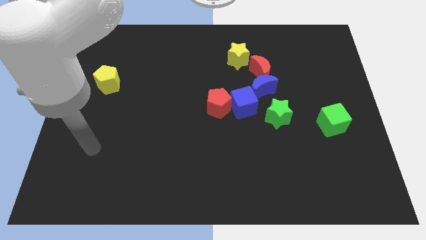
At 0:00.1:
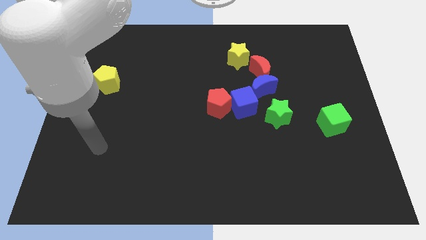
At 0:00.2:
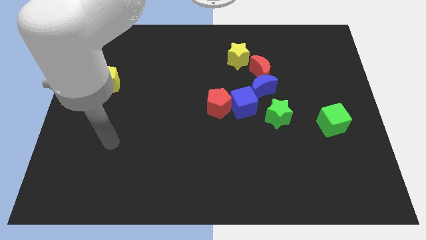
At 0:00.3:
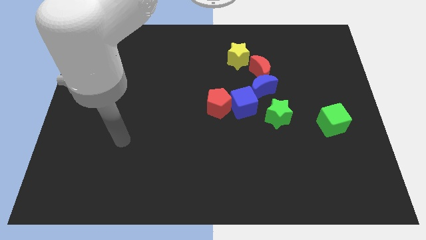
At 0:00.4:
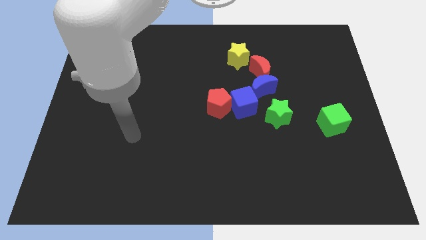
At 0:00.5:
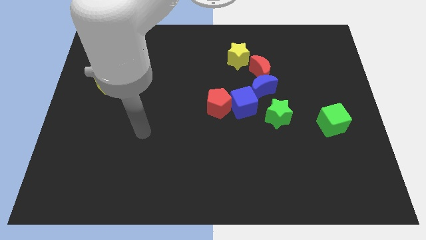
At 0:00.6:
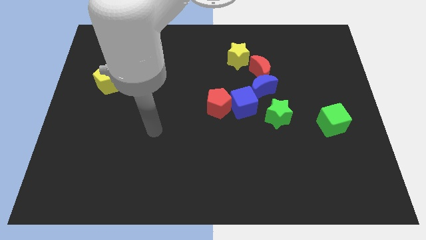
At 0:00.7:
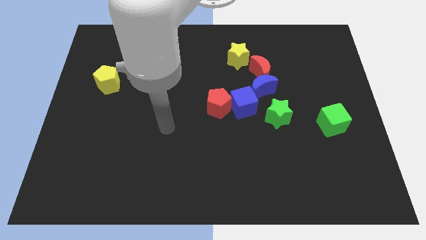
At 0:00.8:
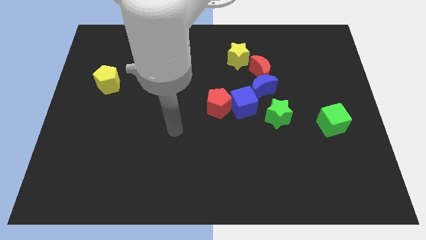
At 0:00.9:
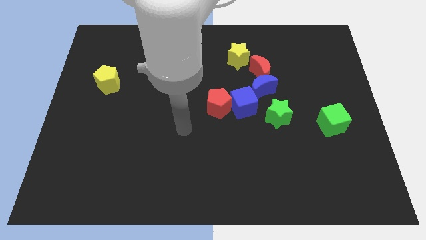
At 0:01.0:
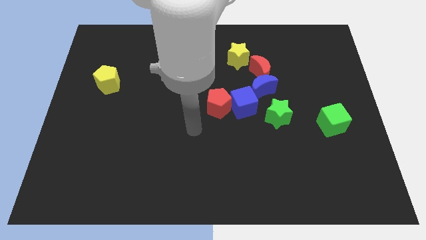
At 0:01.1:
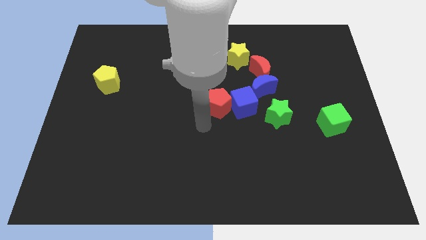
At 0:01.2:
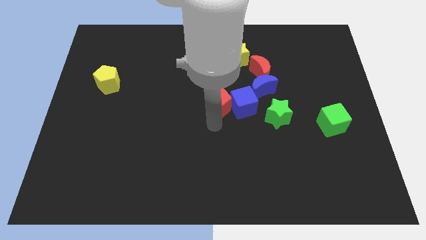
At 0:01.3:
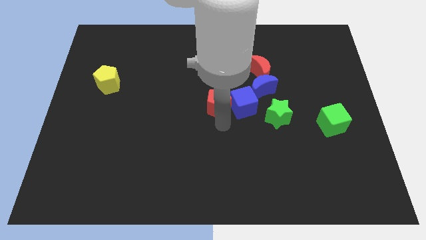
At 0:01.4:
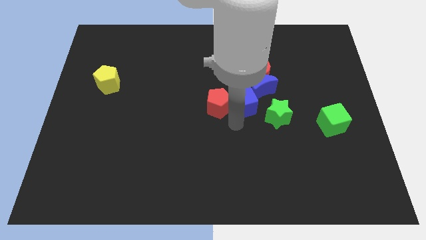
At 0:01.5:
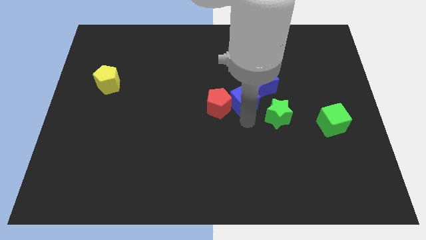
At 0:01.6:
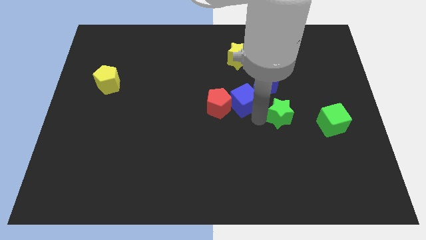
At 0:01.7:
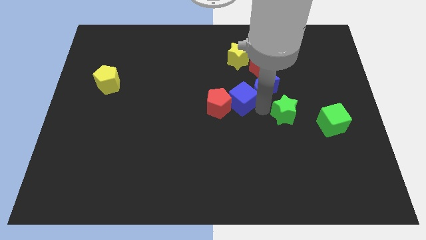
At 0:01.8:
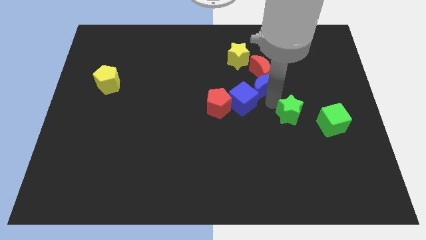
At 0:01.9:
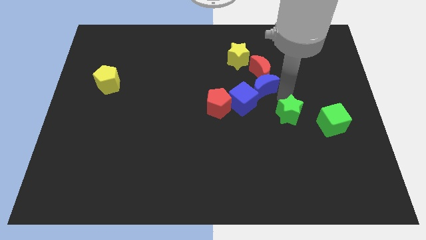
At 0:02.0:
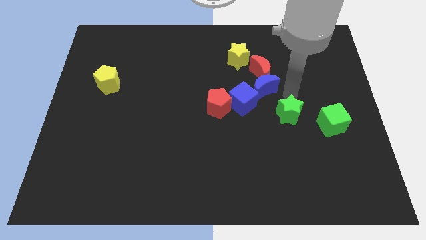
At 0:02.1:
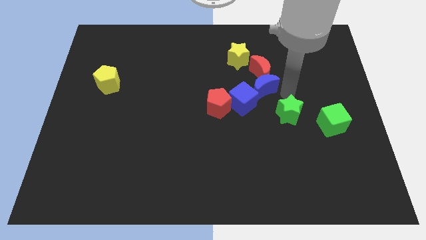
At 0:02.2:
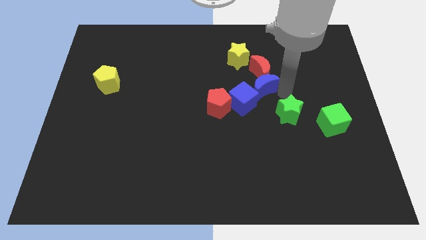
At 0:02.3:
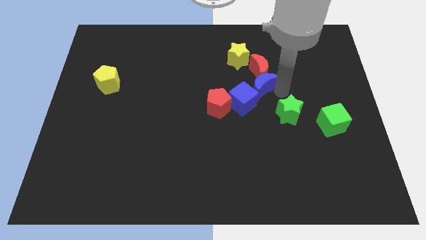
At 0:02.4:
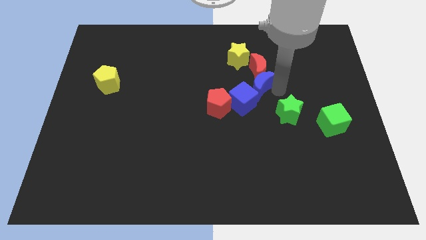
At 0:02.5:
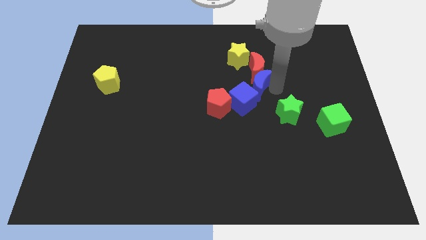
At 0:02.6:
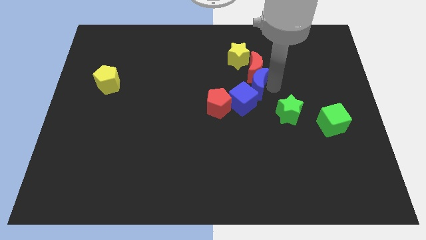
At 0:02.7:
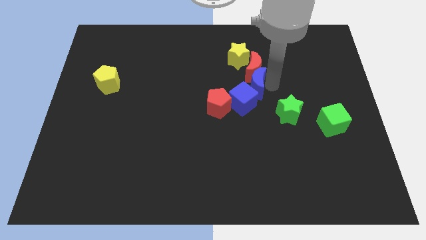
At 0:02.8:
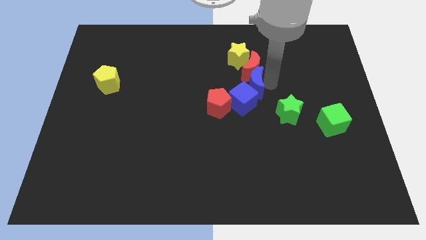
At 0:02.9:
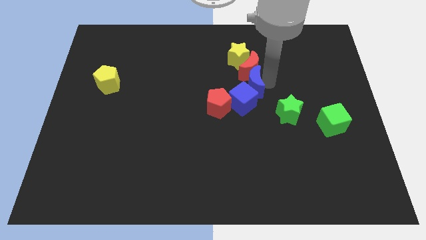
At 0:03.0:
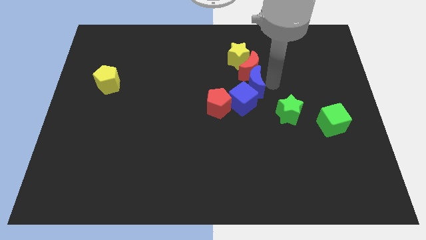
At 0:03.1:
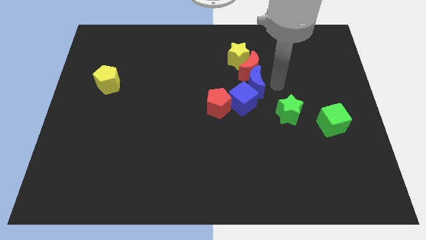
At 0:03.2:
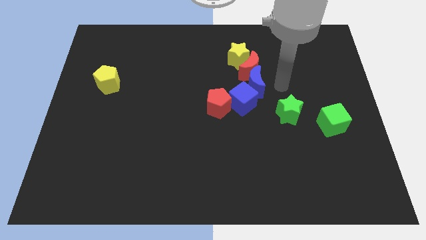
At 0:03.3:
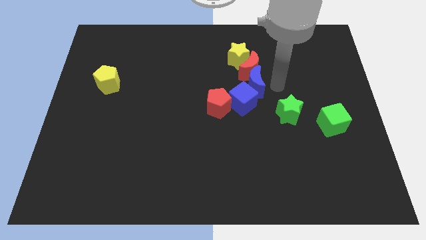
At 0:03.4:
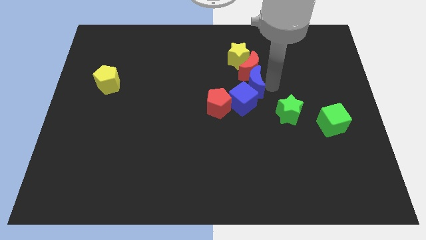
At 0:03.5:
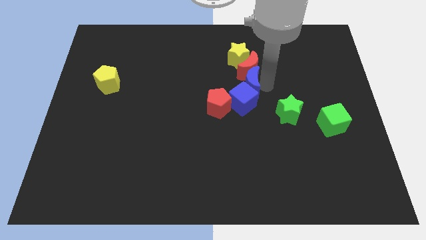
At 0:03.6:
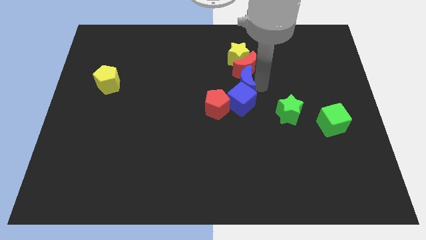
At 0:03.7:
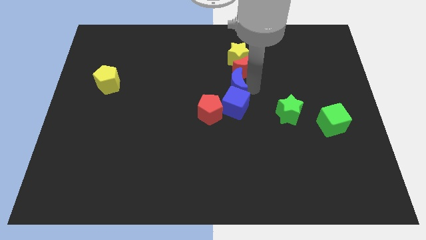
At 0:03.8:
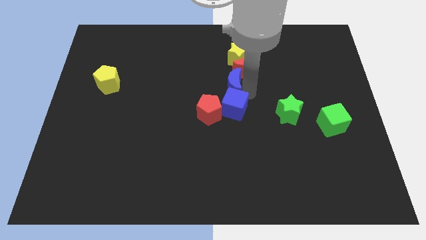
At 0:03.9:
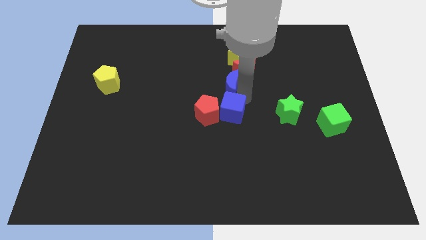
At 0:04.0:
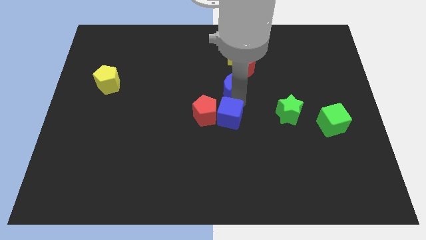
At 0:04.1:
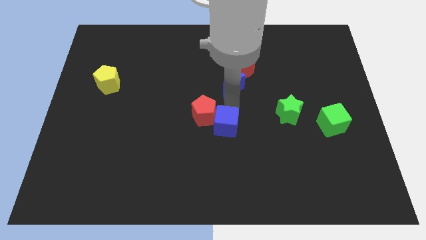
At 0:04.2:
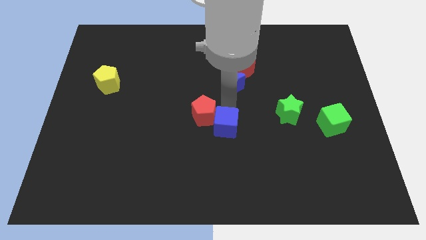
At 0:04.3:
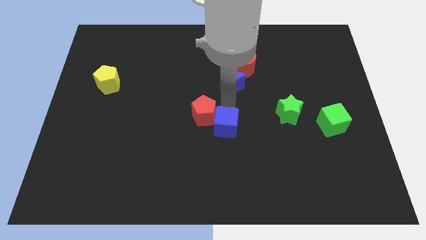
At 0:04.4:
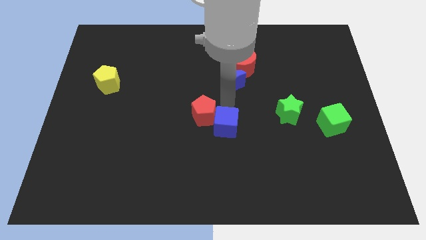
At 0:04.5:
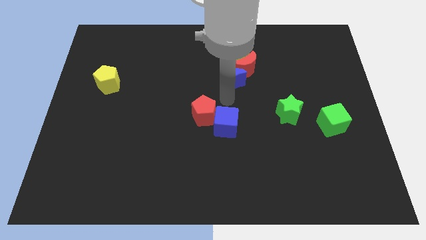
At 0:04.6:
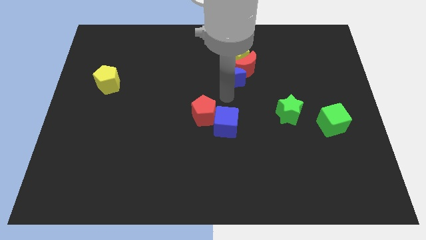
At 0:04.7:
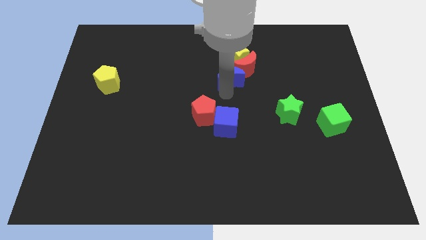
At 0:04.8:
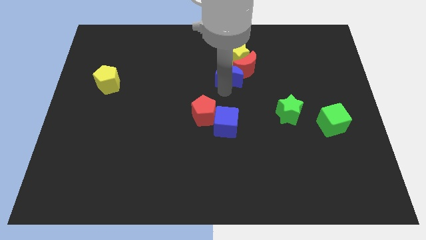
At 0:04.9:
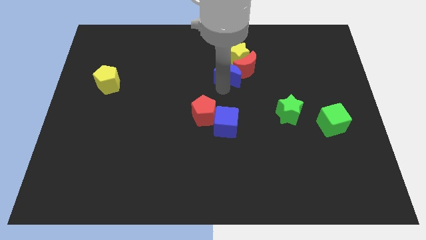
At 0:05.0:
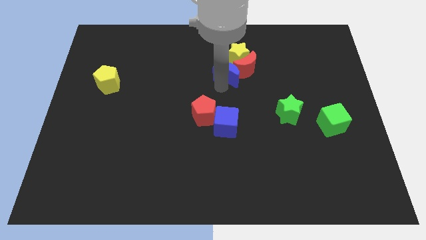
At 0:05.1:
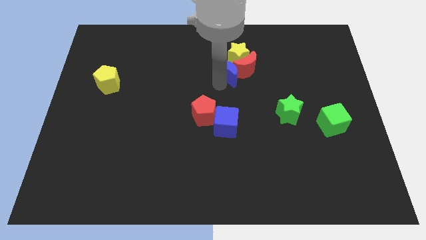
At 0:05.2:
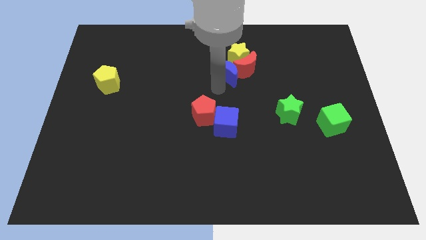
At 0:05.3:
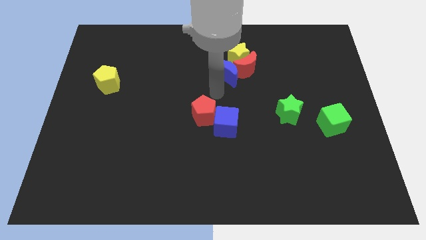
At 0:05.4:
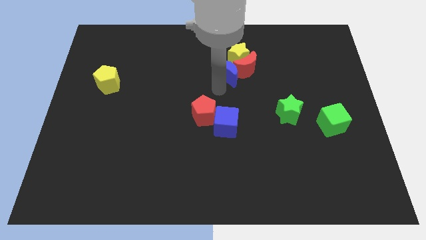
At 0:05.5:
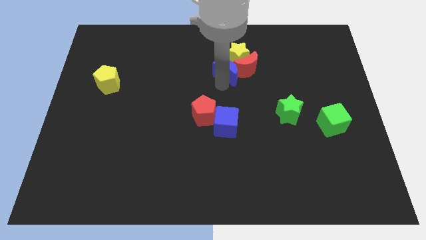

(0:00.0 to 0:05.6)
slide the blue moon to the yellow star

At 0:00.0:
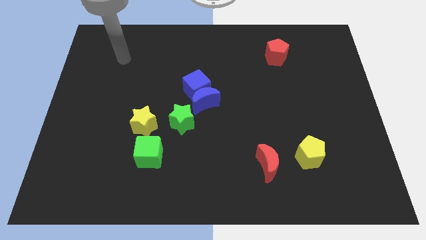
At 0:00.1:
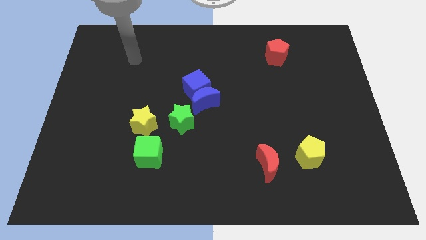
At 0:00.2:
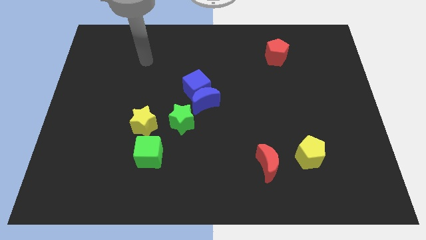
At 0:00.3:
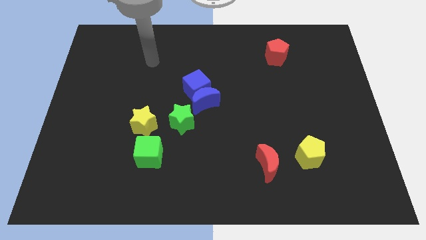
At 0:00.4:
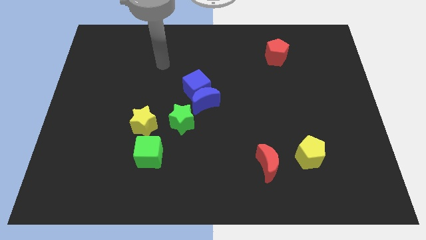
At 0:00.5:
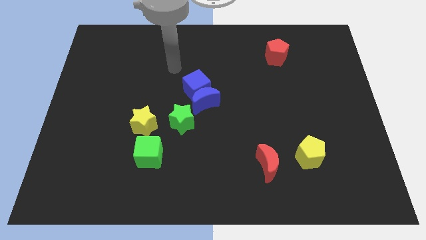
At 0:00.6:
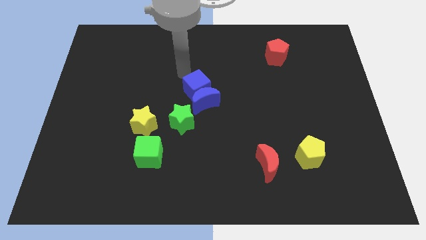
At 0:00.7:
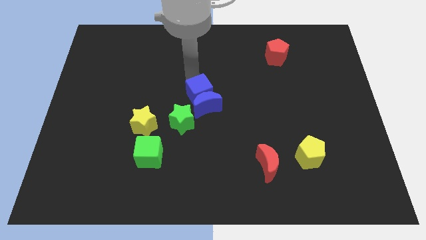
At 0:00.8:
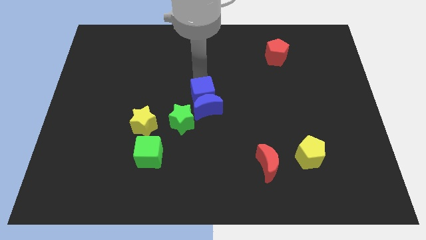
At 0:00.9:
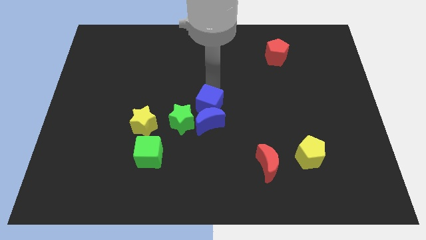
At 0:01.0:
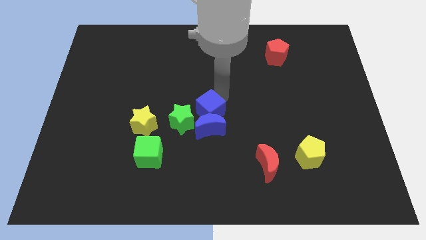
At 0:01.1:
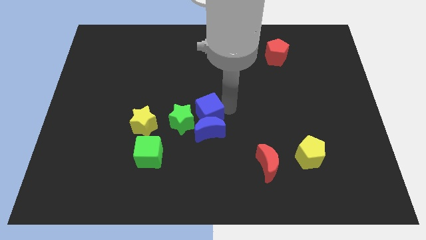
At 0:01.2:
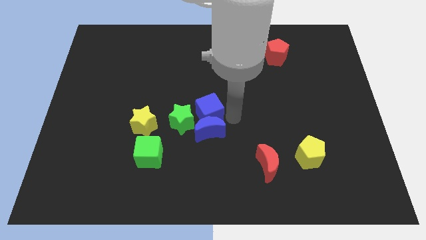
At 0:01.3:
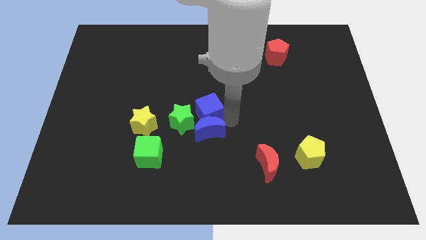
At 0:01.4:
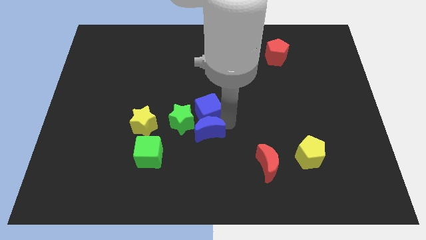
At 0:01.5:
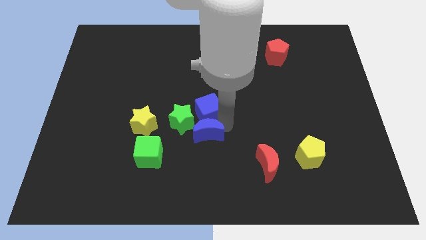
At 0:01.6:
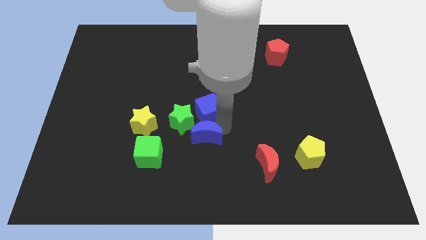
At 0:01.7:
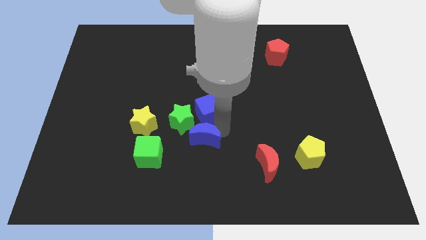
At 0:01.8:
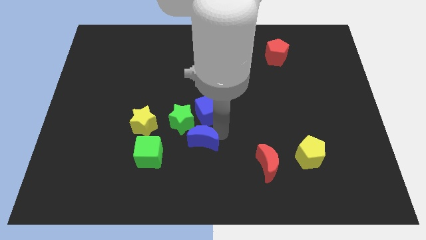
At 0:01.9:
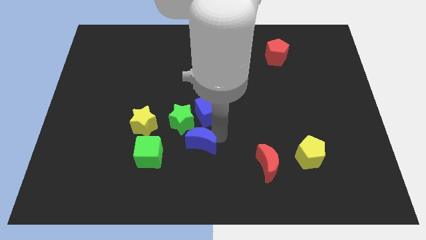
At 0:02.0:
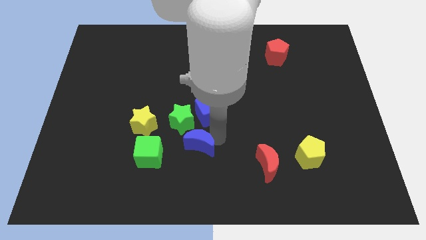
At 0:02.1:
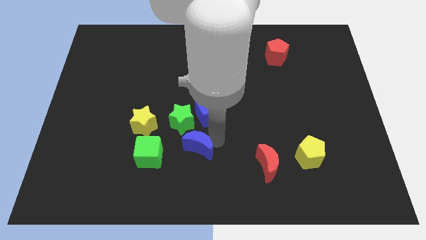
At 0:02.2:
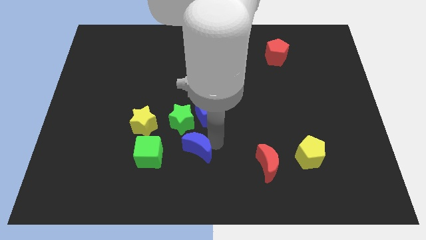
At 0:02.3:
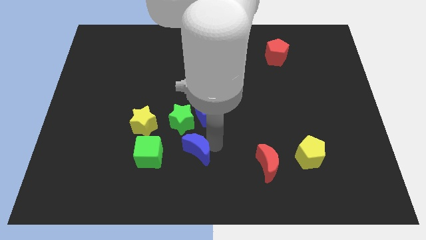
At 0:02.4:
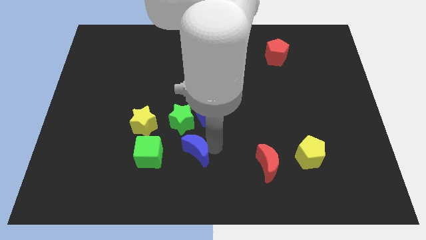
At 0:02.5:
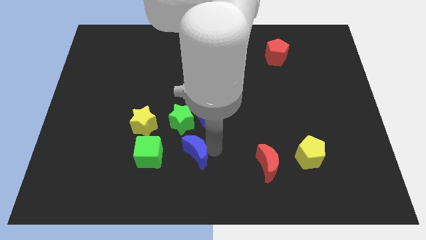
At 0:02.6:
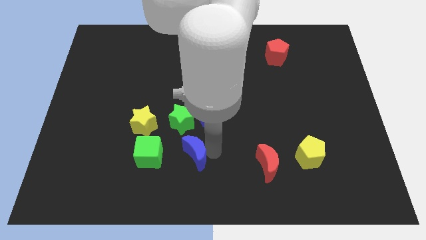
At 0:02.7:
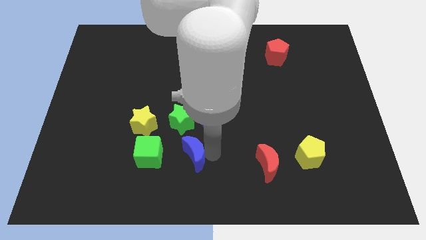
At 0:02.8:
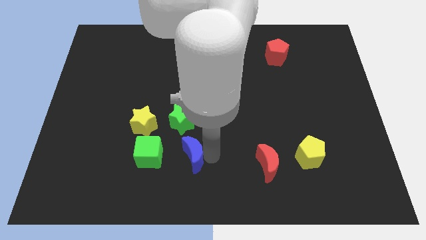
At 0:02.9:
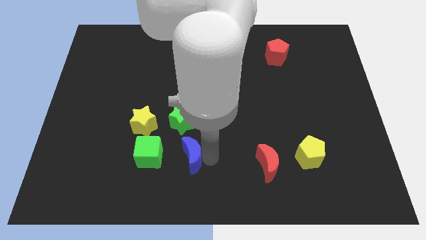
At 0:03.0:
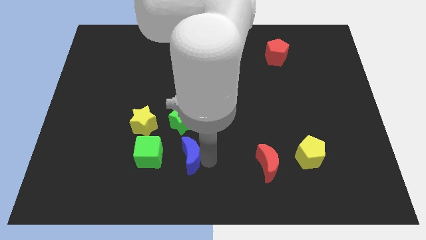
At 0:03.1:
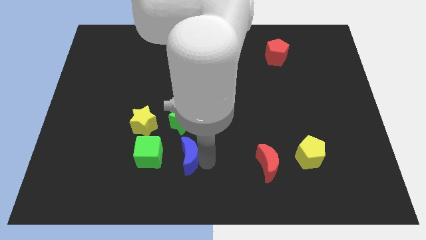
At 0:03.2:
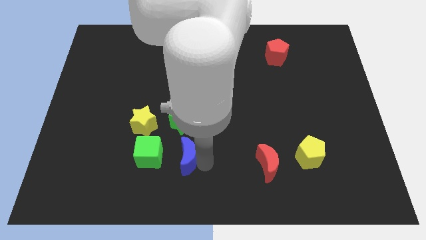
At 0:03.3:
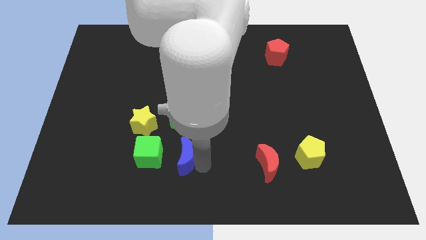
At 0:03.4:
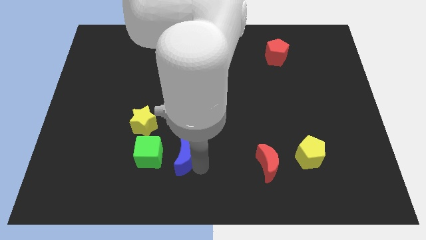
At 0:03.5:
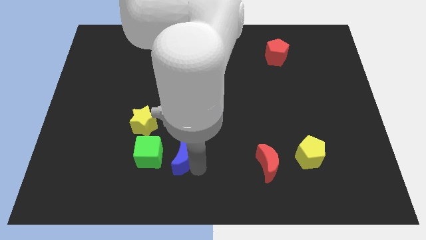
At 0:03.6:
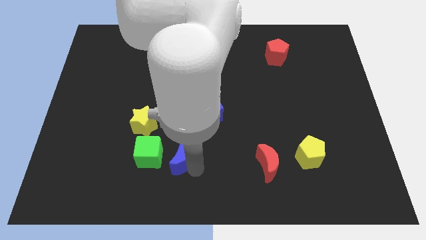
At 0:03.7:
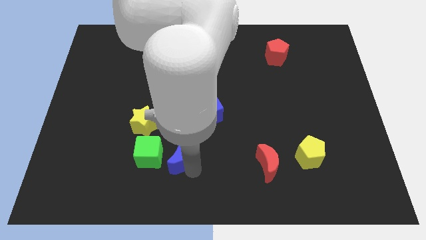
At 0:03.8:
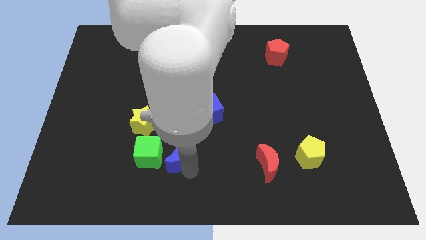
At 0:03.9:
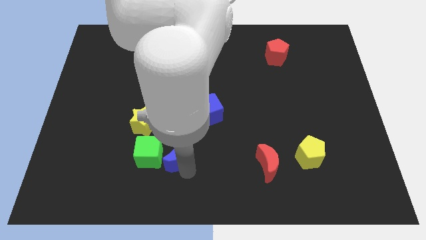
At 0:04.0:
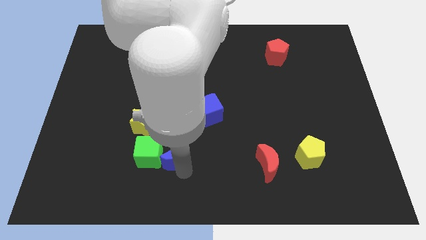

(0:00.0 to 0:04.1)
move the blue moon towards the green cube
